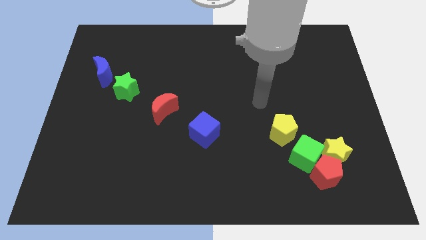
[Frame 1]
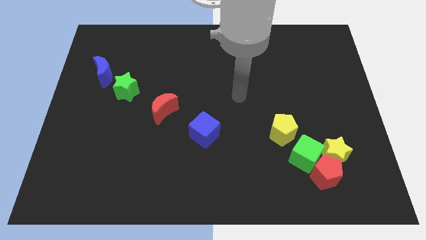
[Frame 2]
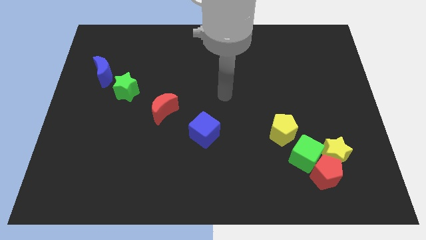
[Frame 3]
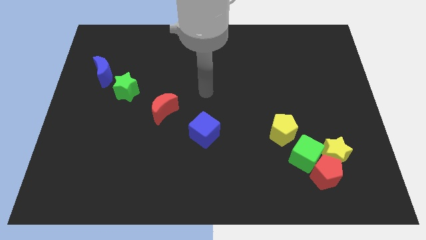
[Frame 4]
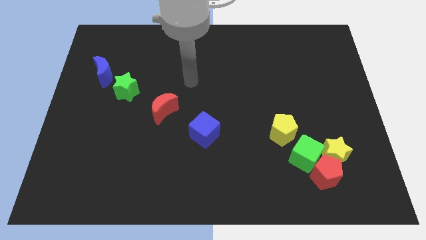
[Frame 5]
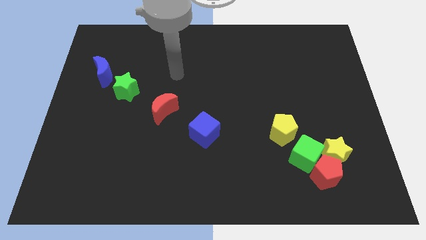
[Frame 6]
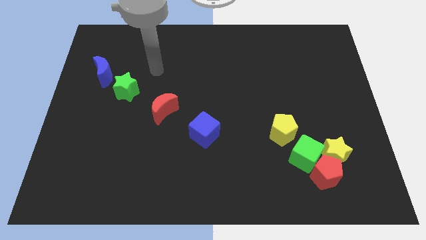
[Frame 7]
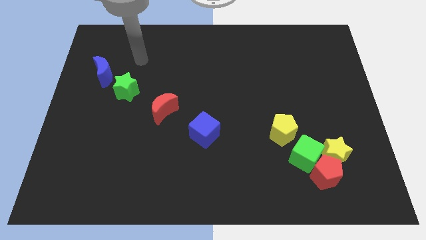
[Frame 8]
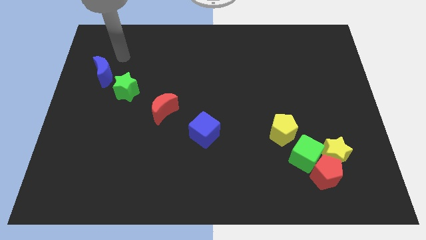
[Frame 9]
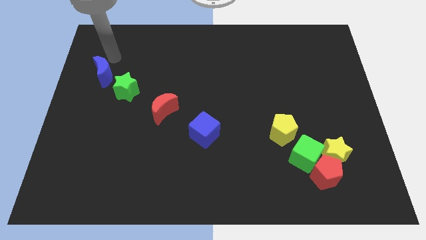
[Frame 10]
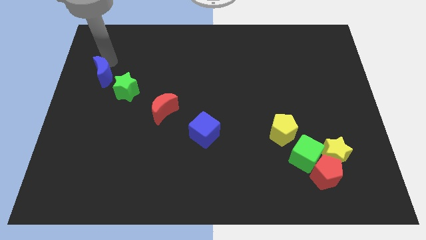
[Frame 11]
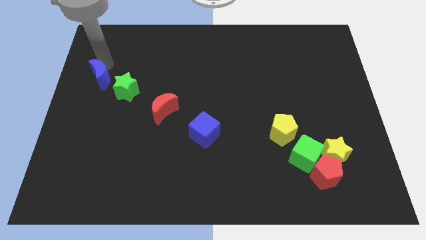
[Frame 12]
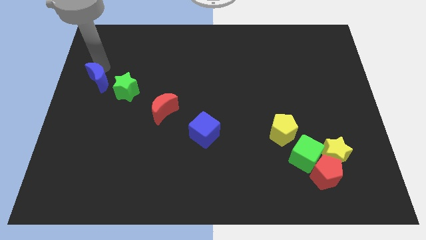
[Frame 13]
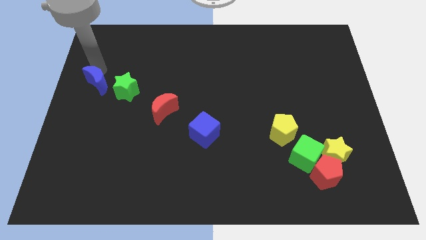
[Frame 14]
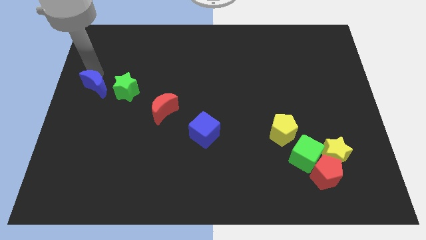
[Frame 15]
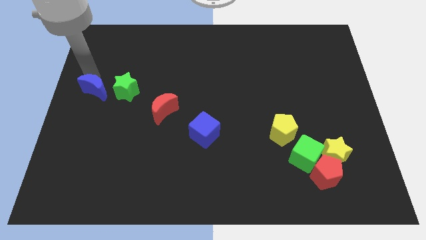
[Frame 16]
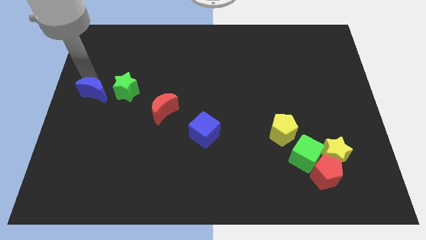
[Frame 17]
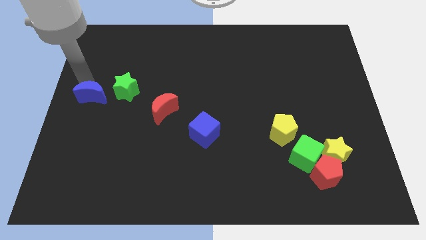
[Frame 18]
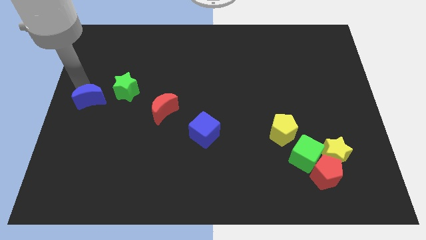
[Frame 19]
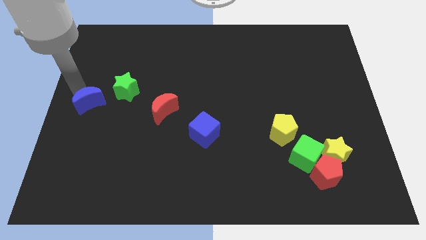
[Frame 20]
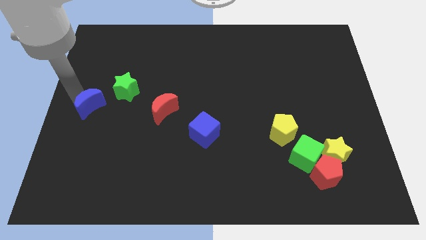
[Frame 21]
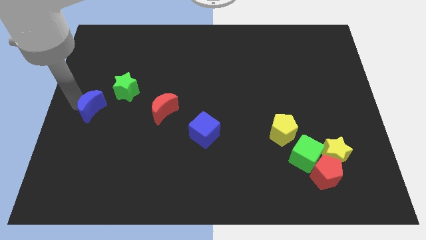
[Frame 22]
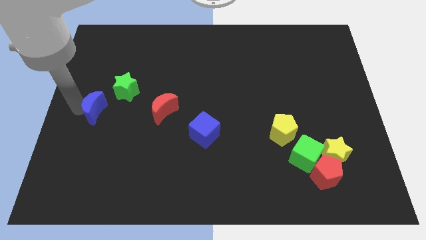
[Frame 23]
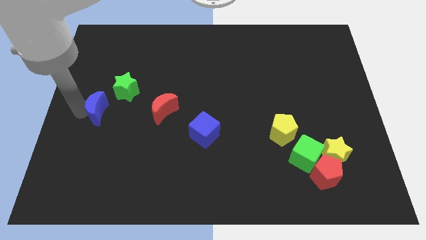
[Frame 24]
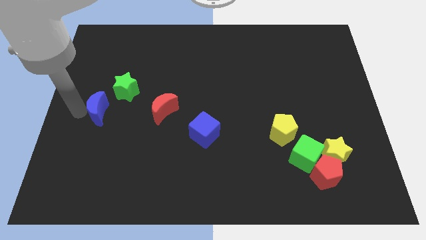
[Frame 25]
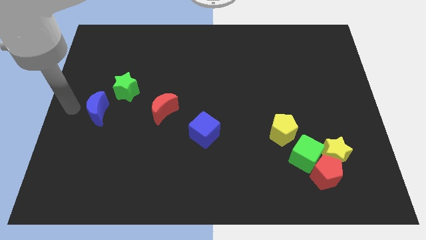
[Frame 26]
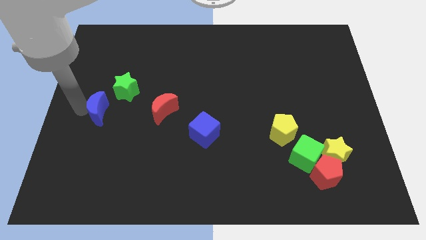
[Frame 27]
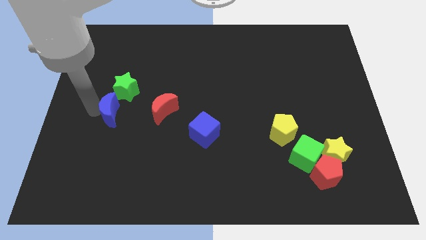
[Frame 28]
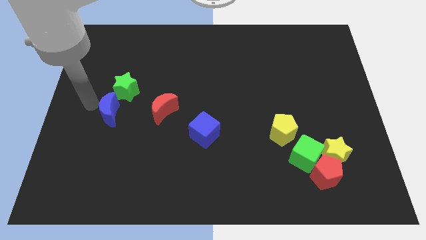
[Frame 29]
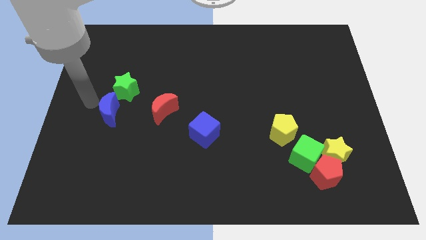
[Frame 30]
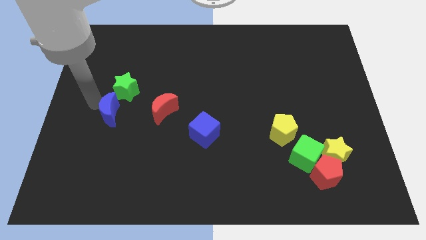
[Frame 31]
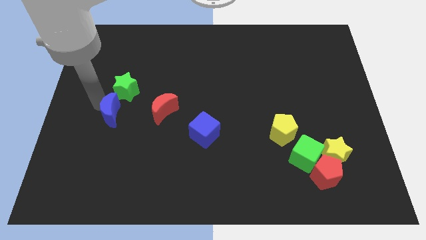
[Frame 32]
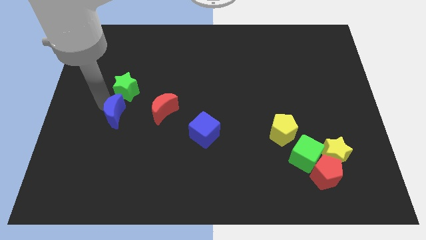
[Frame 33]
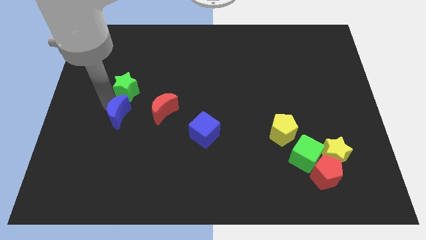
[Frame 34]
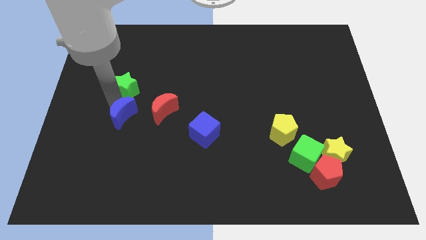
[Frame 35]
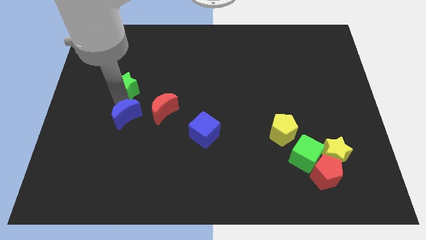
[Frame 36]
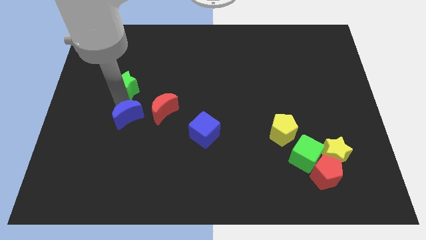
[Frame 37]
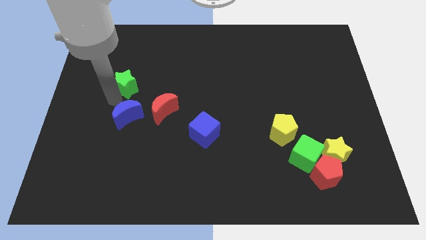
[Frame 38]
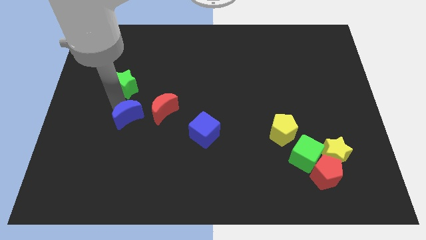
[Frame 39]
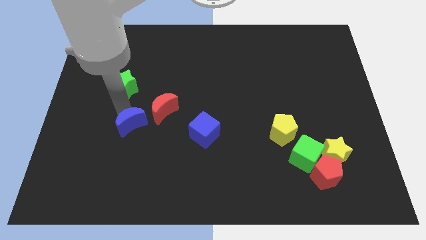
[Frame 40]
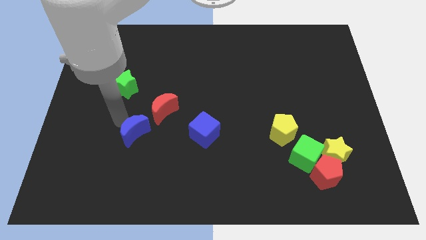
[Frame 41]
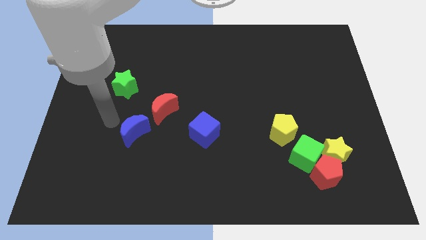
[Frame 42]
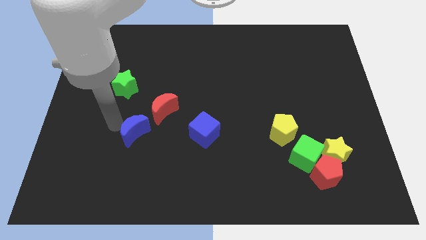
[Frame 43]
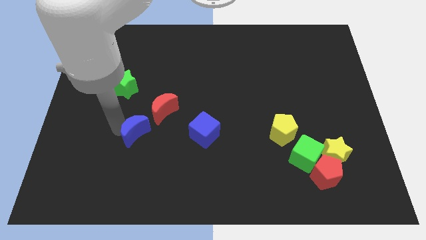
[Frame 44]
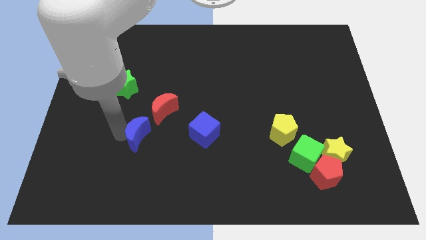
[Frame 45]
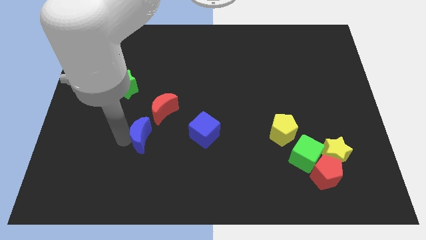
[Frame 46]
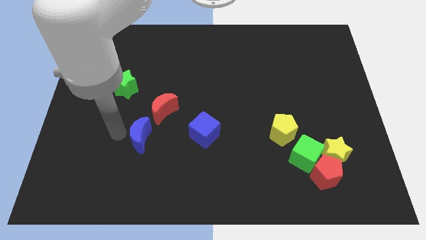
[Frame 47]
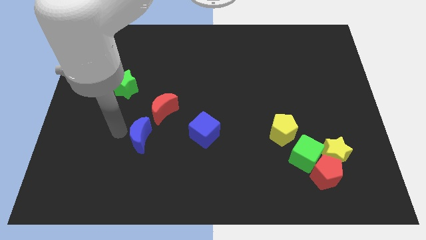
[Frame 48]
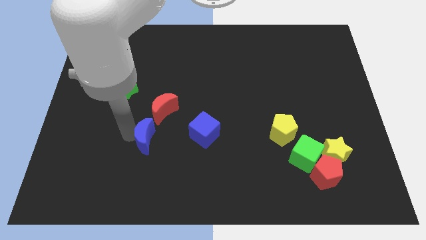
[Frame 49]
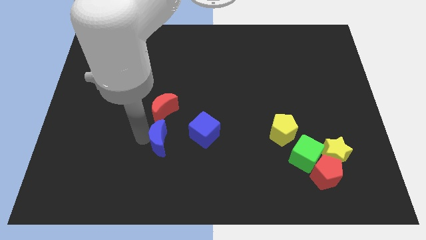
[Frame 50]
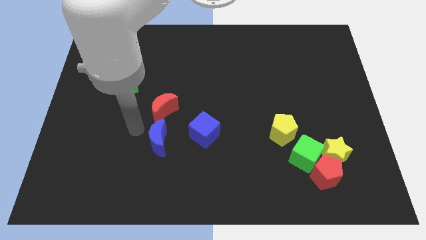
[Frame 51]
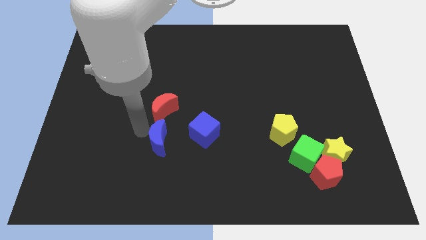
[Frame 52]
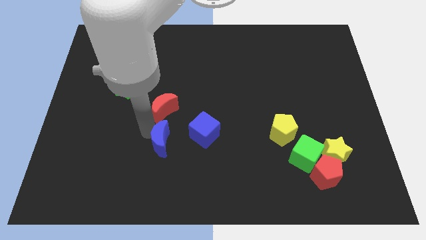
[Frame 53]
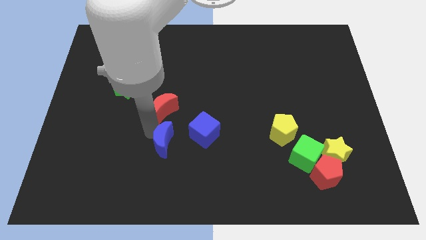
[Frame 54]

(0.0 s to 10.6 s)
slide the blue moon diagonally down and to the left of the blue cube

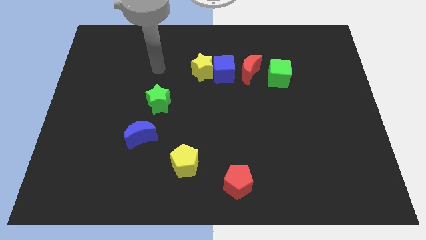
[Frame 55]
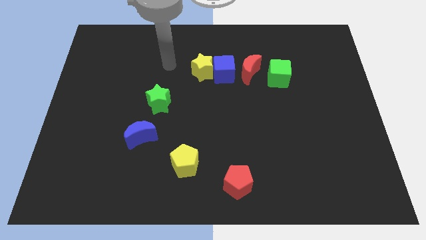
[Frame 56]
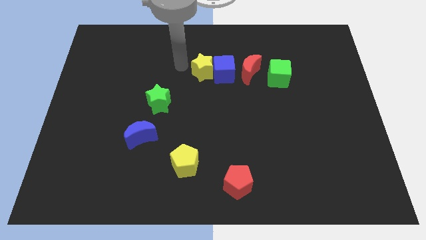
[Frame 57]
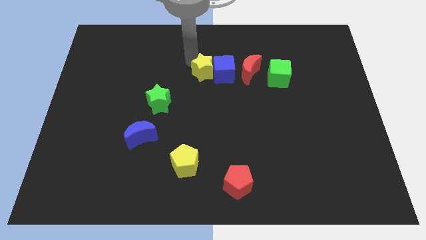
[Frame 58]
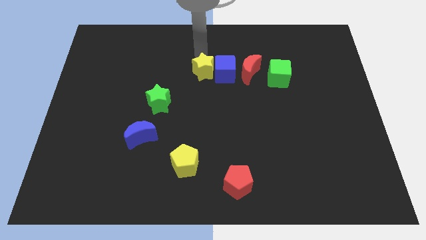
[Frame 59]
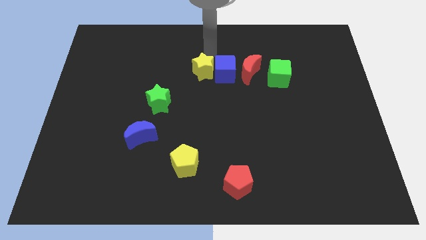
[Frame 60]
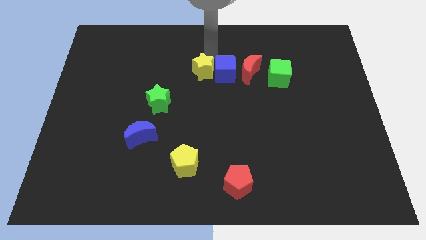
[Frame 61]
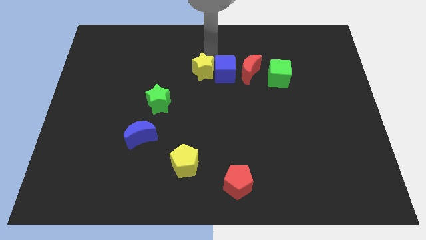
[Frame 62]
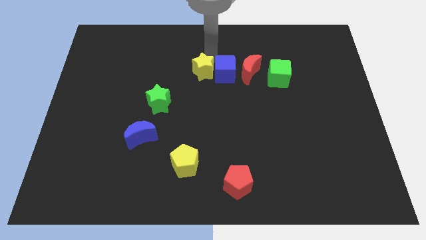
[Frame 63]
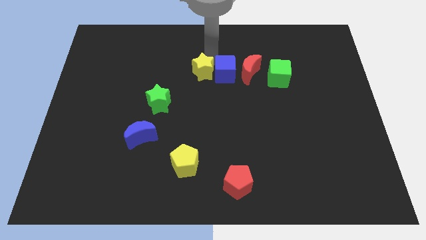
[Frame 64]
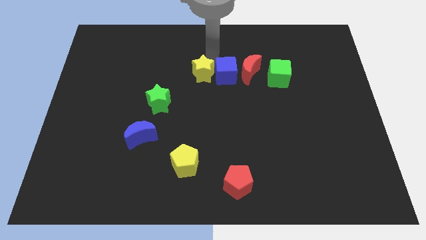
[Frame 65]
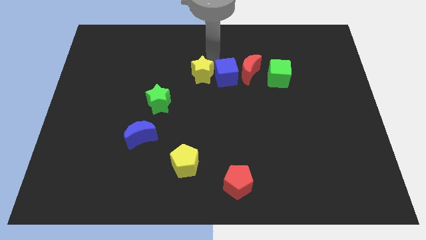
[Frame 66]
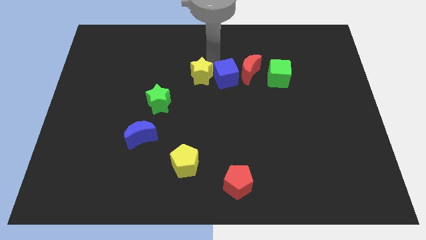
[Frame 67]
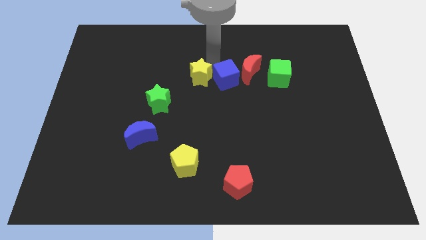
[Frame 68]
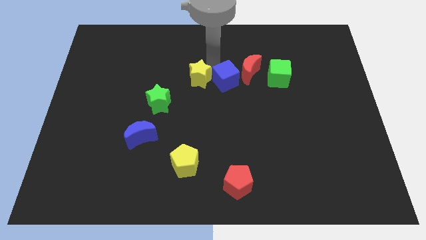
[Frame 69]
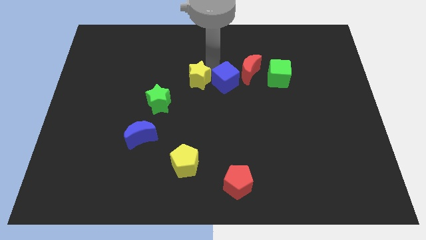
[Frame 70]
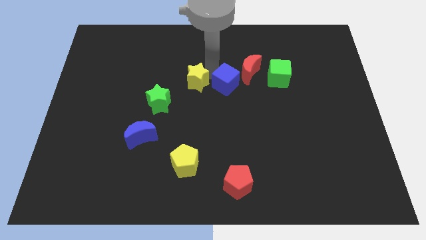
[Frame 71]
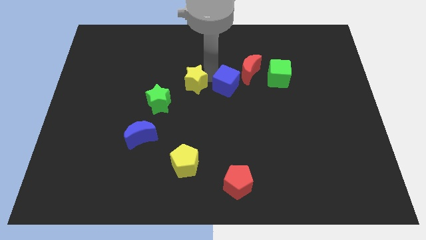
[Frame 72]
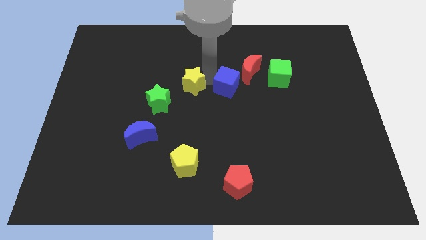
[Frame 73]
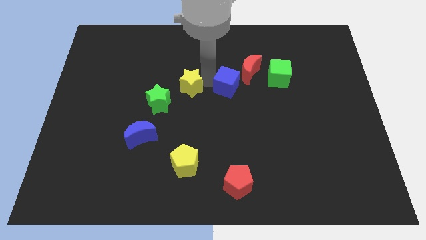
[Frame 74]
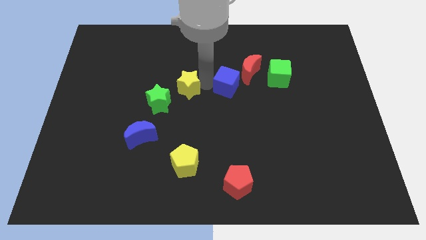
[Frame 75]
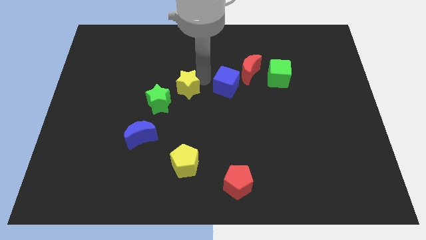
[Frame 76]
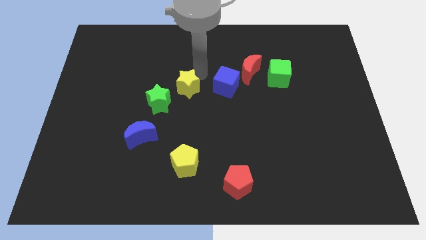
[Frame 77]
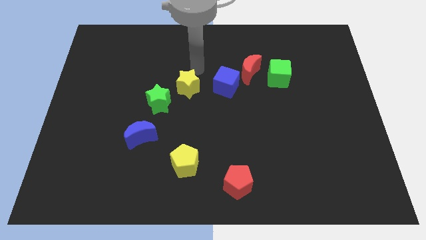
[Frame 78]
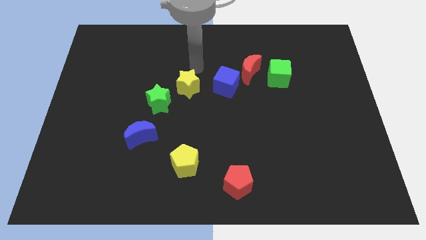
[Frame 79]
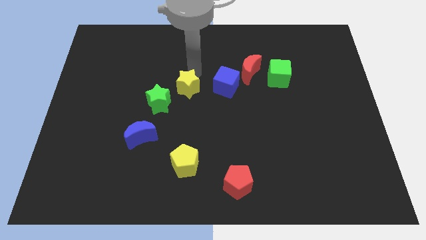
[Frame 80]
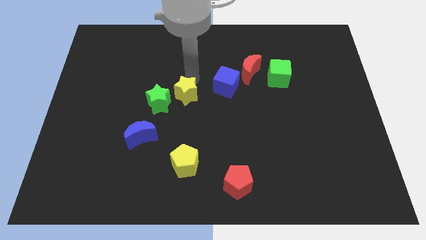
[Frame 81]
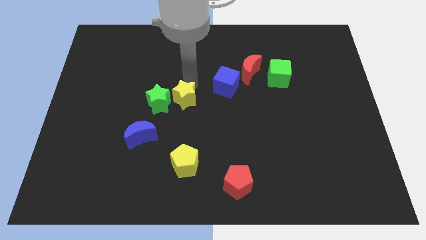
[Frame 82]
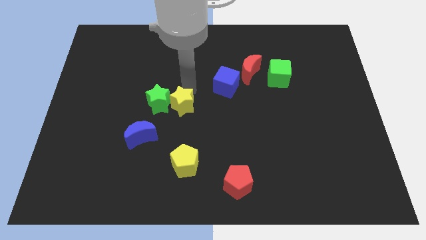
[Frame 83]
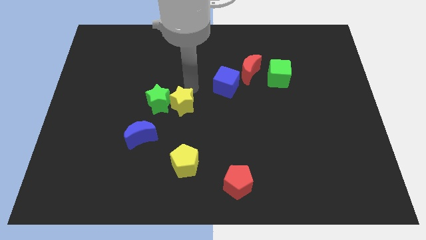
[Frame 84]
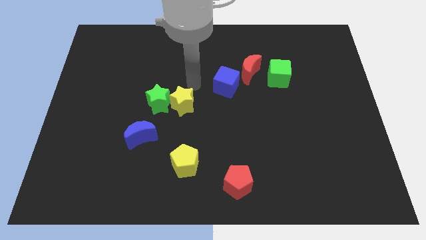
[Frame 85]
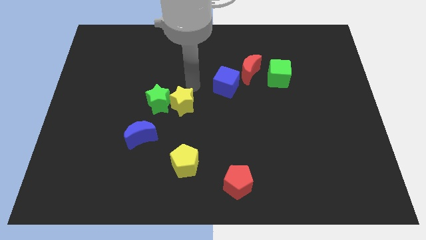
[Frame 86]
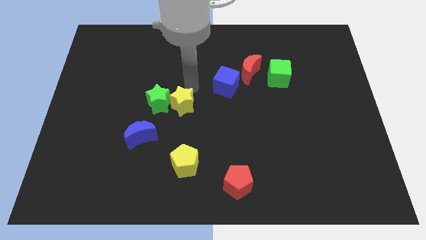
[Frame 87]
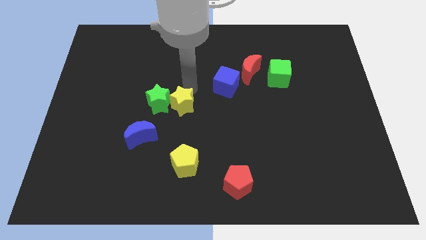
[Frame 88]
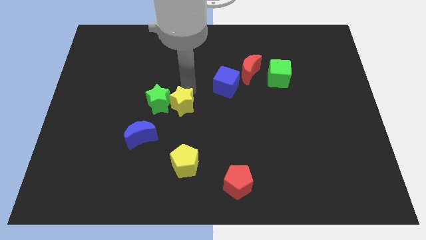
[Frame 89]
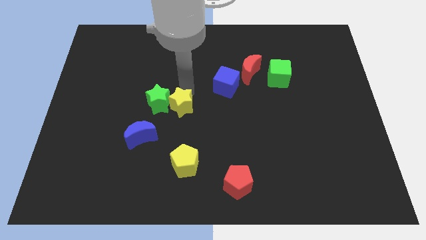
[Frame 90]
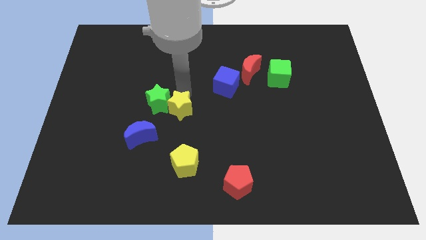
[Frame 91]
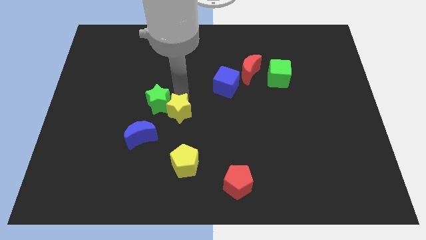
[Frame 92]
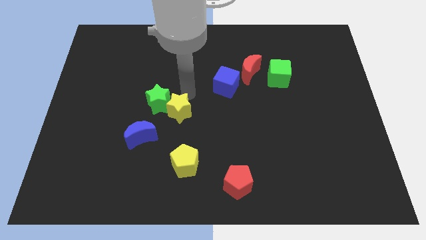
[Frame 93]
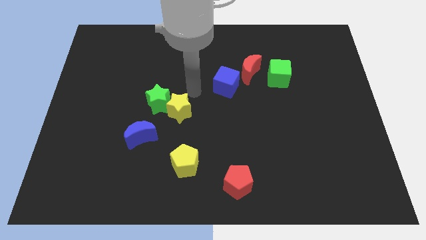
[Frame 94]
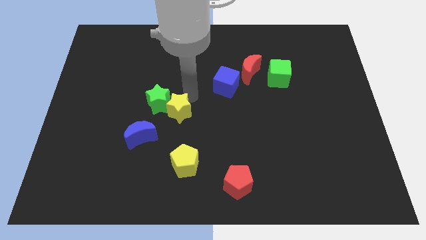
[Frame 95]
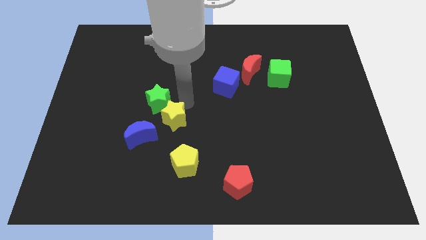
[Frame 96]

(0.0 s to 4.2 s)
push the yellow star to the bottom side of the green star
